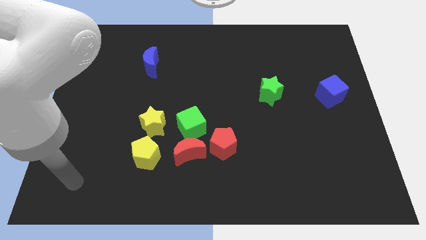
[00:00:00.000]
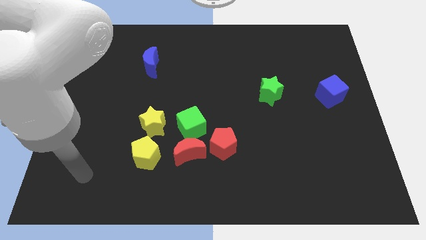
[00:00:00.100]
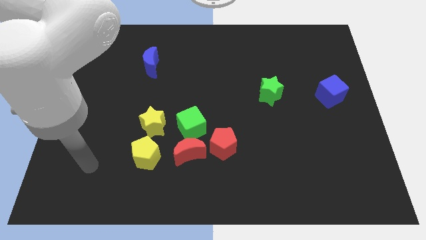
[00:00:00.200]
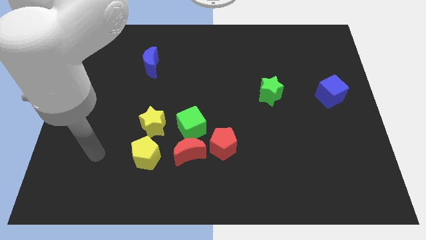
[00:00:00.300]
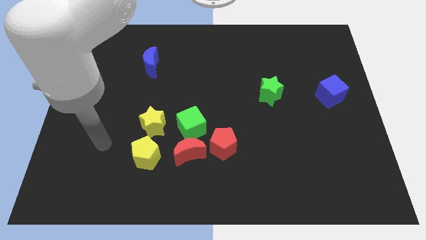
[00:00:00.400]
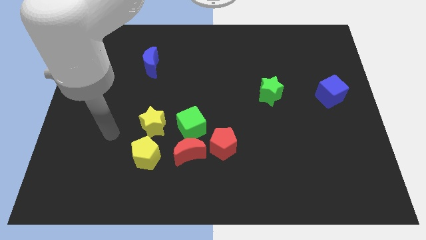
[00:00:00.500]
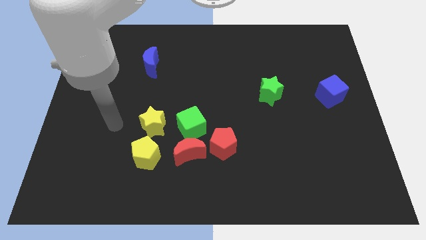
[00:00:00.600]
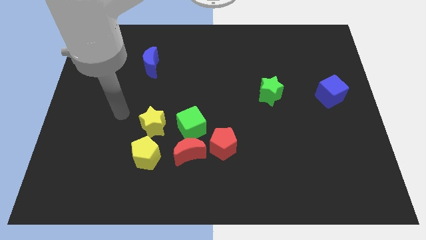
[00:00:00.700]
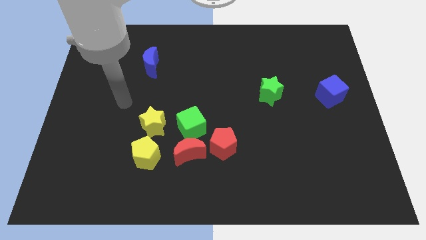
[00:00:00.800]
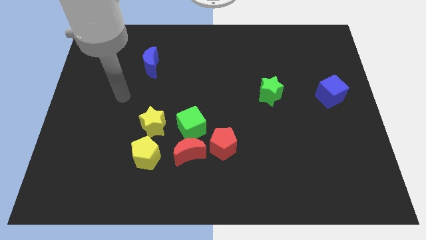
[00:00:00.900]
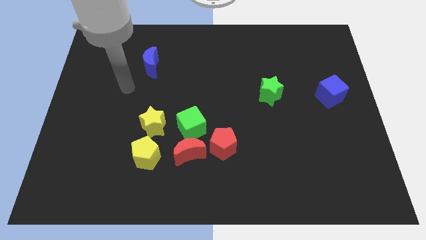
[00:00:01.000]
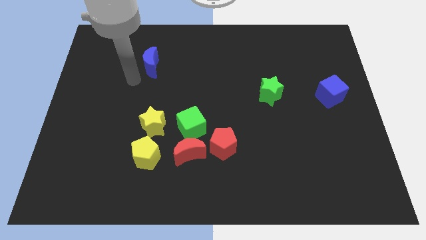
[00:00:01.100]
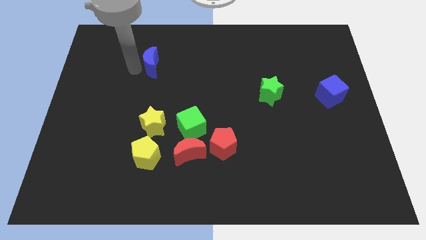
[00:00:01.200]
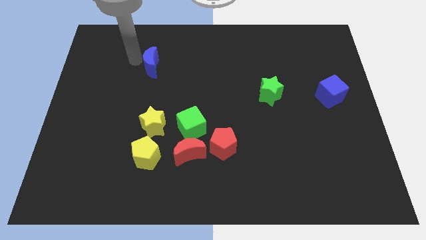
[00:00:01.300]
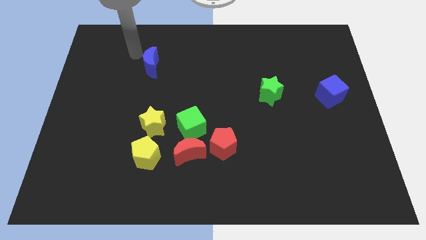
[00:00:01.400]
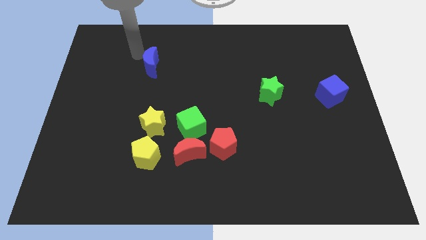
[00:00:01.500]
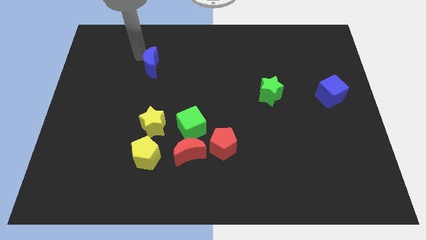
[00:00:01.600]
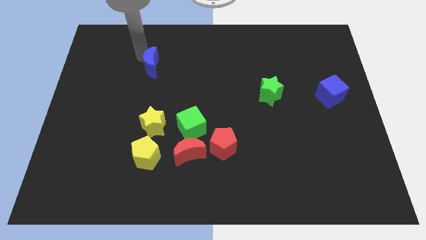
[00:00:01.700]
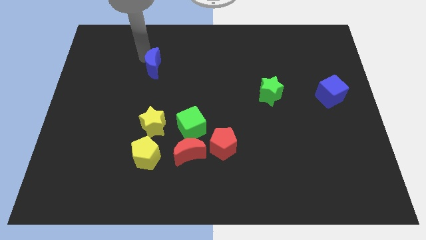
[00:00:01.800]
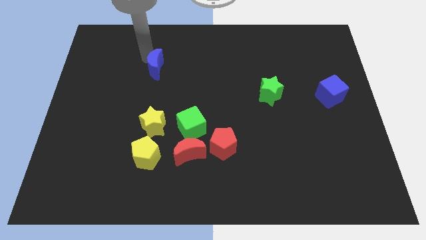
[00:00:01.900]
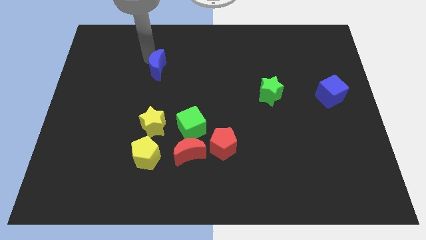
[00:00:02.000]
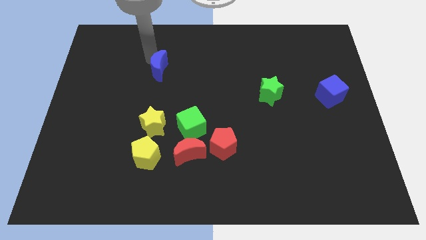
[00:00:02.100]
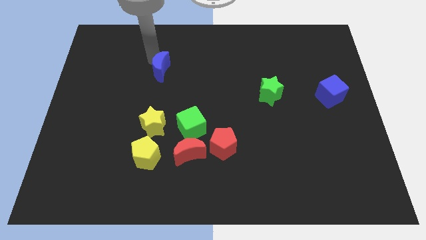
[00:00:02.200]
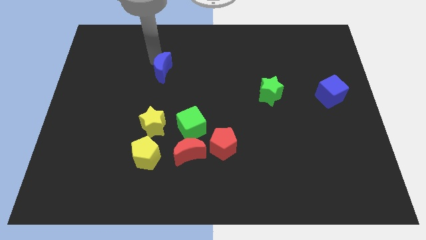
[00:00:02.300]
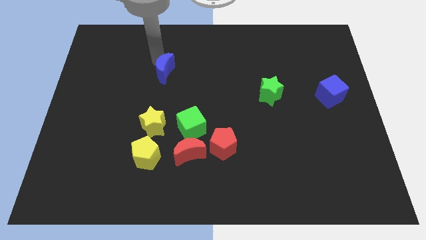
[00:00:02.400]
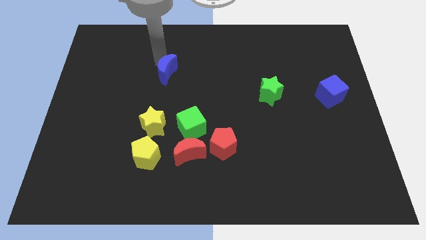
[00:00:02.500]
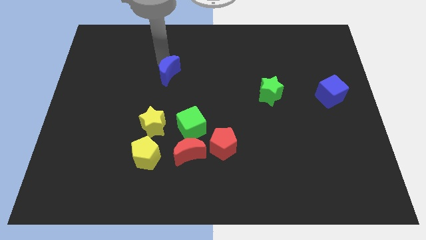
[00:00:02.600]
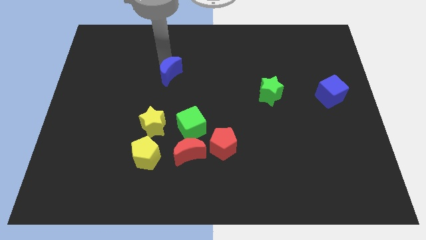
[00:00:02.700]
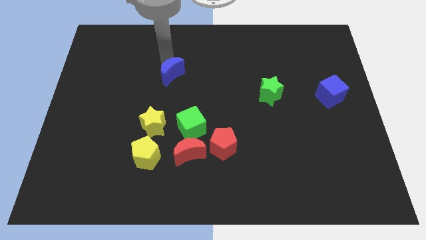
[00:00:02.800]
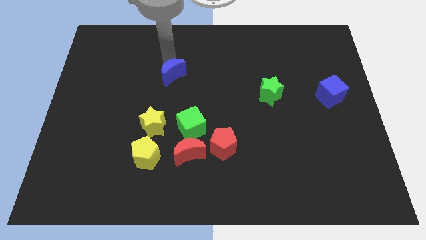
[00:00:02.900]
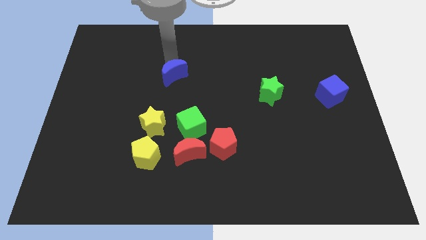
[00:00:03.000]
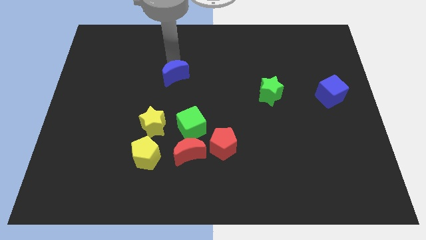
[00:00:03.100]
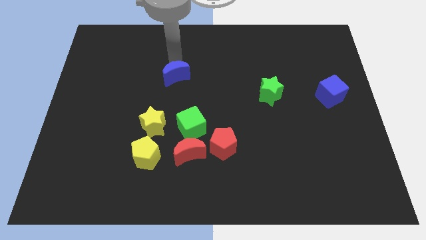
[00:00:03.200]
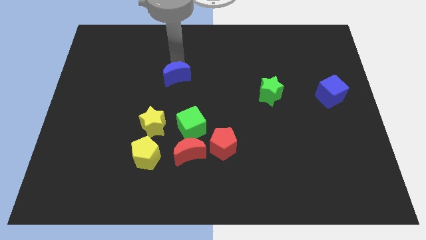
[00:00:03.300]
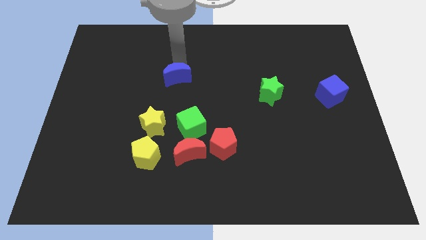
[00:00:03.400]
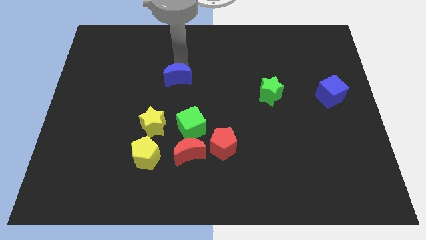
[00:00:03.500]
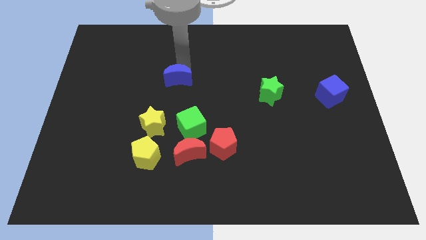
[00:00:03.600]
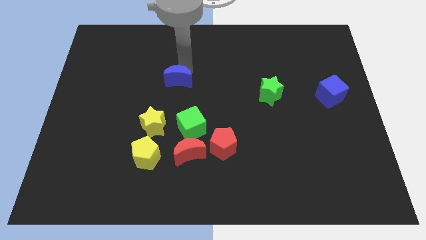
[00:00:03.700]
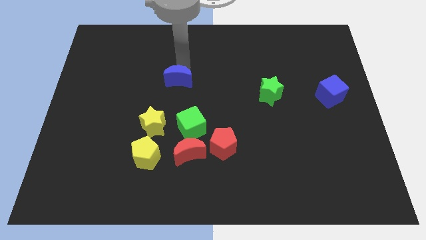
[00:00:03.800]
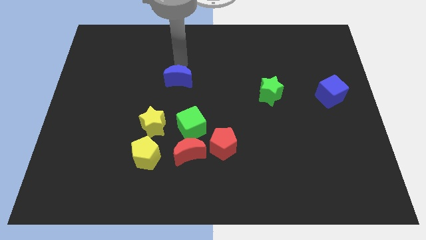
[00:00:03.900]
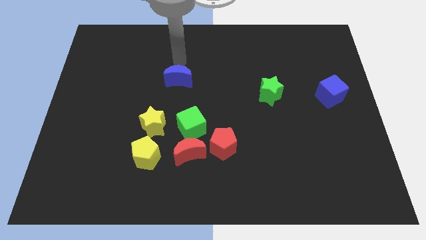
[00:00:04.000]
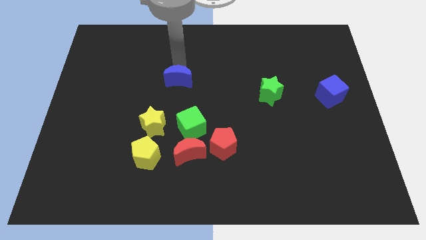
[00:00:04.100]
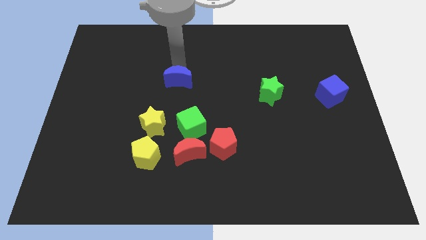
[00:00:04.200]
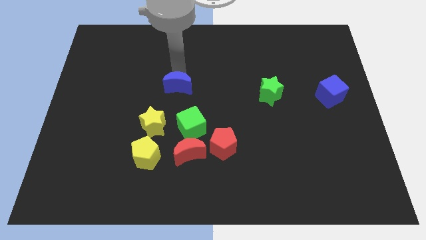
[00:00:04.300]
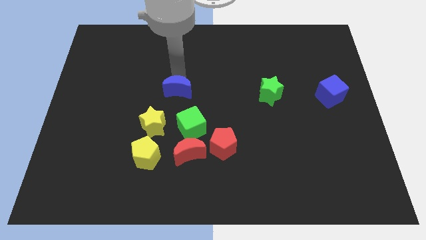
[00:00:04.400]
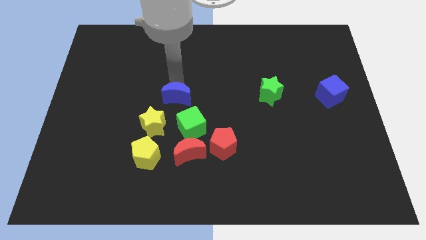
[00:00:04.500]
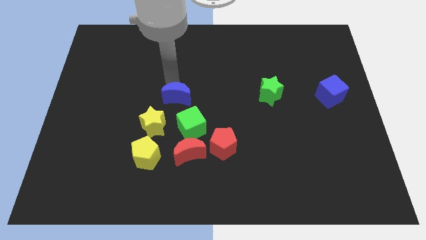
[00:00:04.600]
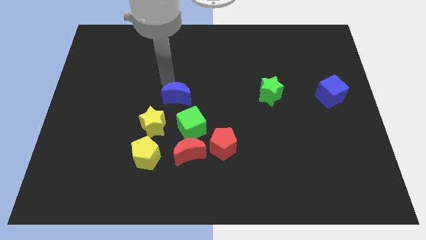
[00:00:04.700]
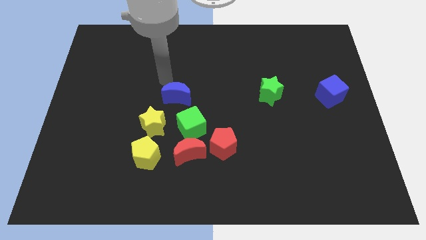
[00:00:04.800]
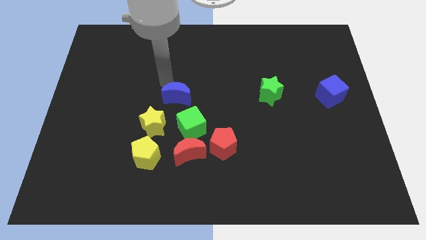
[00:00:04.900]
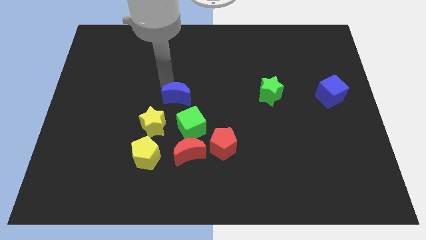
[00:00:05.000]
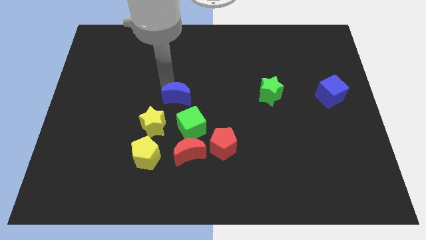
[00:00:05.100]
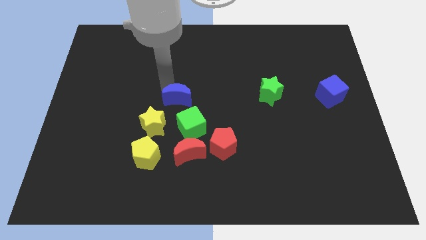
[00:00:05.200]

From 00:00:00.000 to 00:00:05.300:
push the blue moon to the top side of the red moon

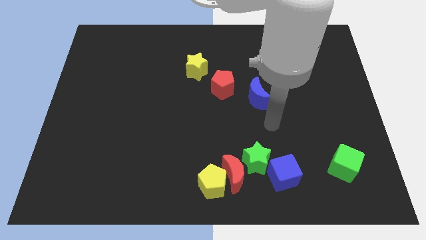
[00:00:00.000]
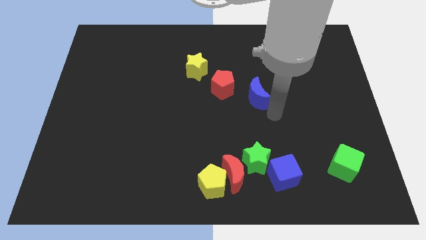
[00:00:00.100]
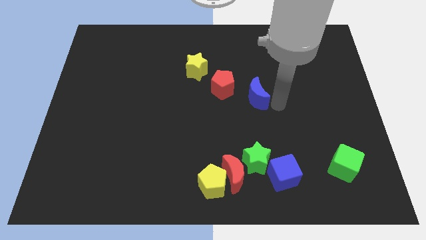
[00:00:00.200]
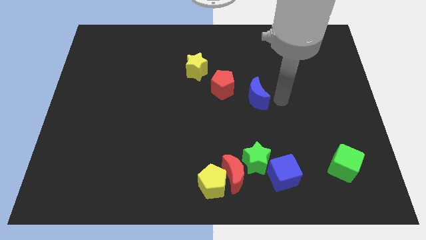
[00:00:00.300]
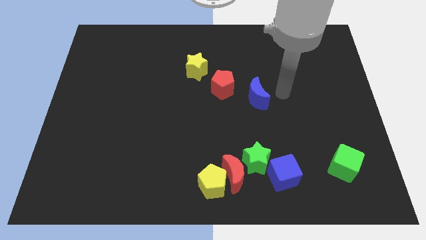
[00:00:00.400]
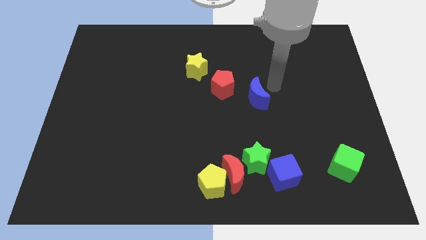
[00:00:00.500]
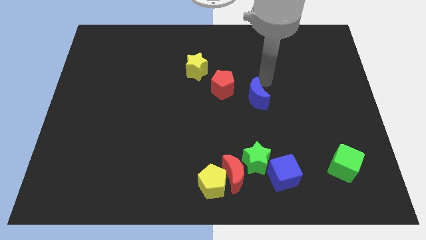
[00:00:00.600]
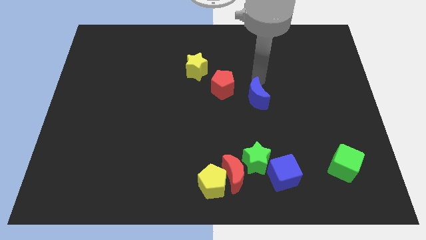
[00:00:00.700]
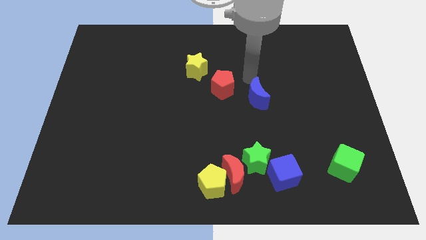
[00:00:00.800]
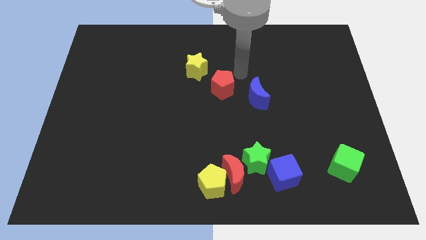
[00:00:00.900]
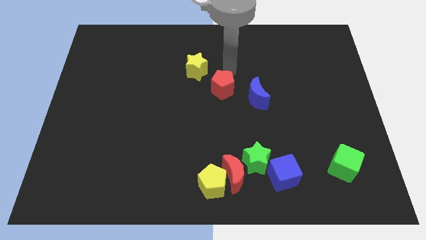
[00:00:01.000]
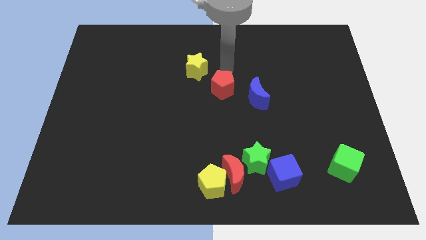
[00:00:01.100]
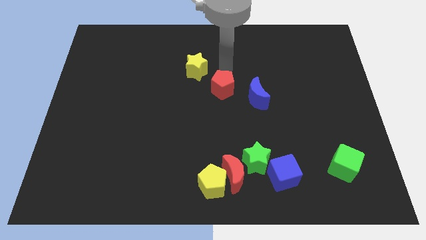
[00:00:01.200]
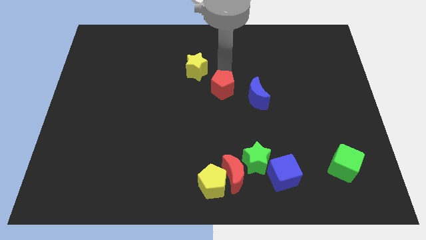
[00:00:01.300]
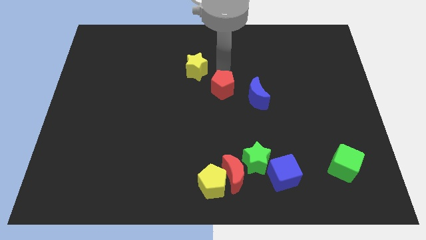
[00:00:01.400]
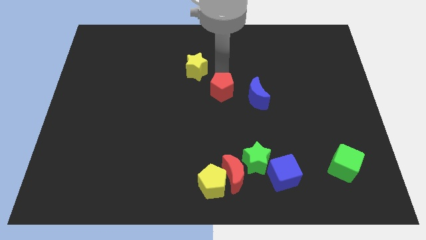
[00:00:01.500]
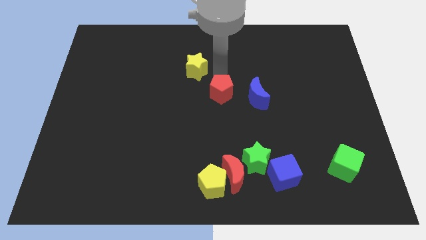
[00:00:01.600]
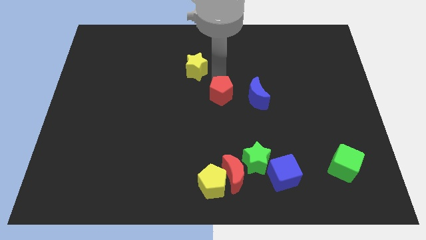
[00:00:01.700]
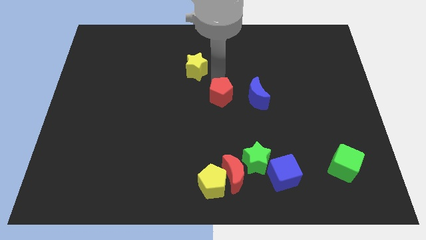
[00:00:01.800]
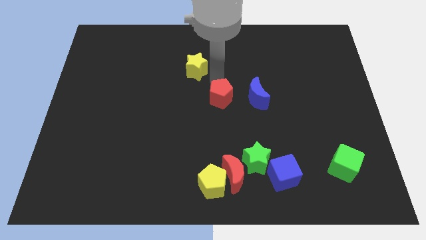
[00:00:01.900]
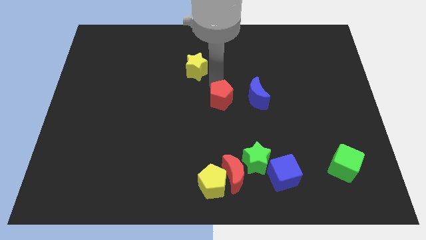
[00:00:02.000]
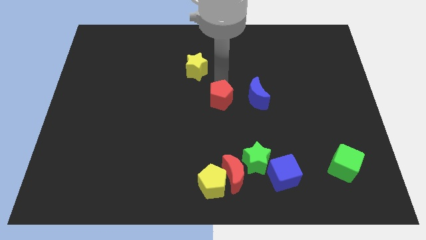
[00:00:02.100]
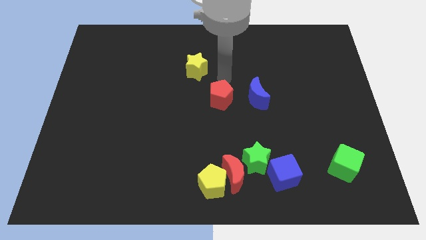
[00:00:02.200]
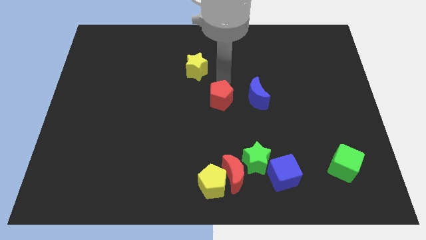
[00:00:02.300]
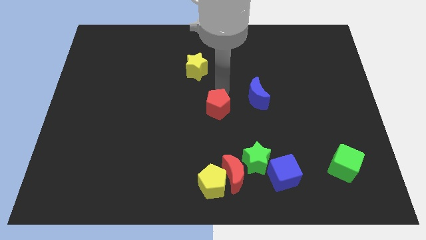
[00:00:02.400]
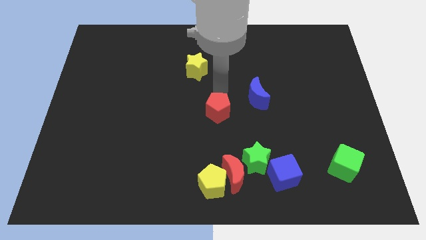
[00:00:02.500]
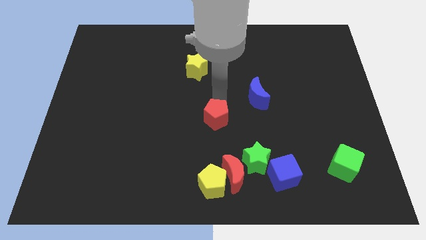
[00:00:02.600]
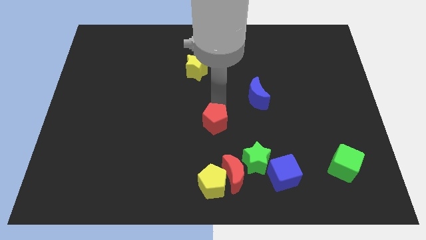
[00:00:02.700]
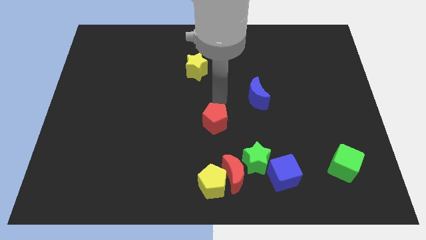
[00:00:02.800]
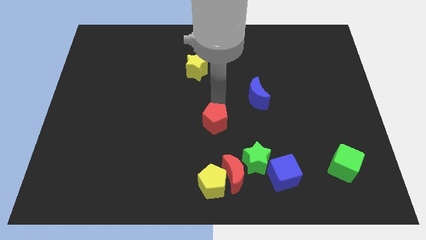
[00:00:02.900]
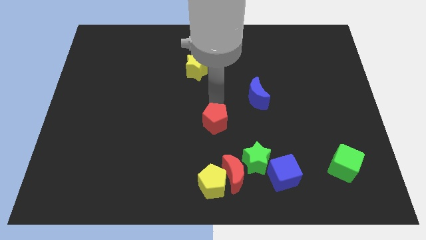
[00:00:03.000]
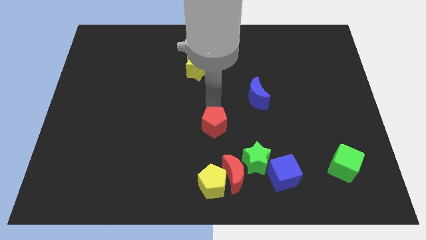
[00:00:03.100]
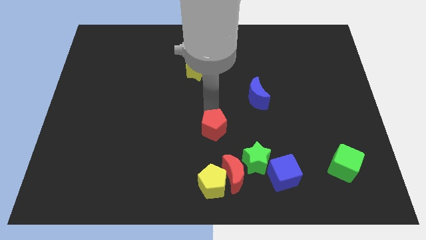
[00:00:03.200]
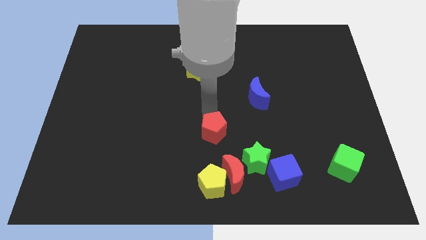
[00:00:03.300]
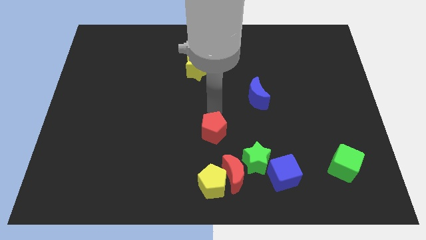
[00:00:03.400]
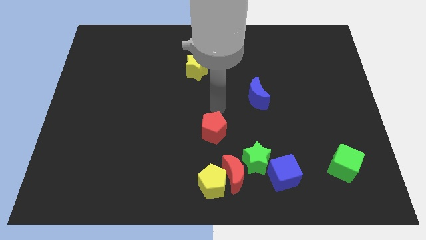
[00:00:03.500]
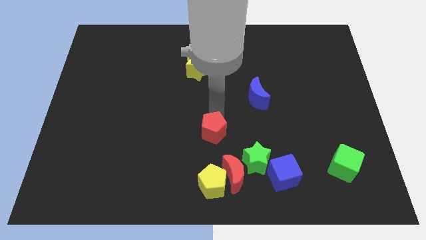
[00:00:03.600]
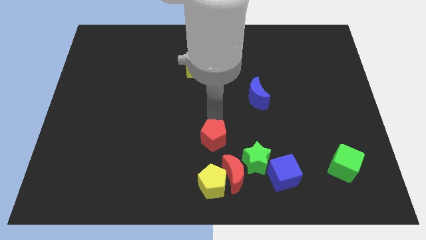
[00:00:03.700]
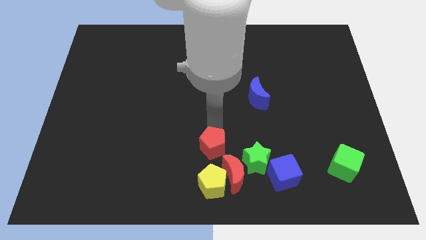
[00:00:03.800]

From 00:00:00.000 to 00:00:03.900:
push the red pentagon left of the green star
